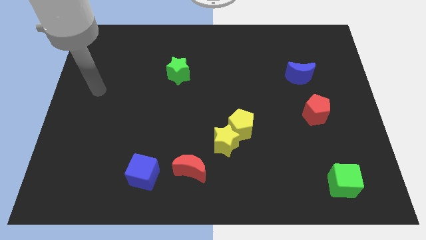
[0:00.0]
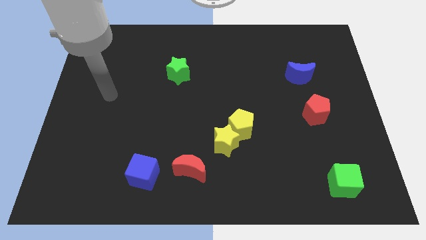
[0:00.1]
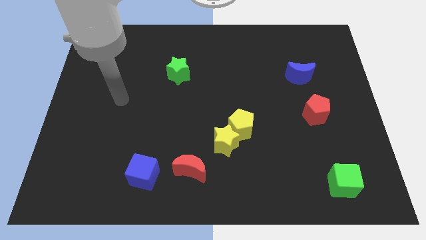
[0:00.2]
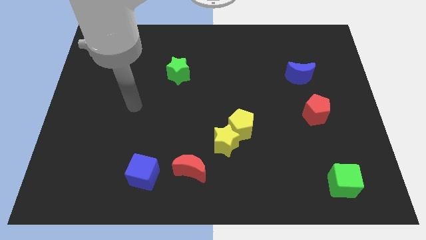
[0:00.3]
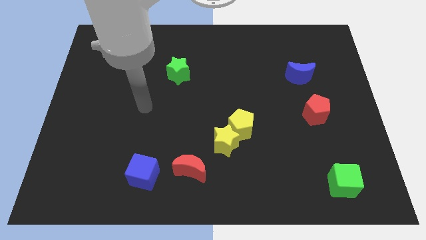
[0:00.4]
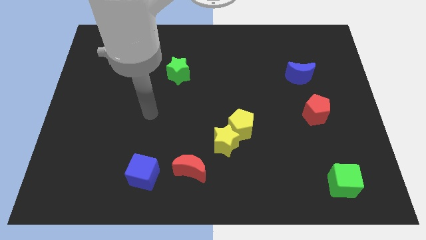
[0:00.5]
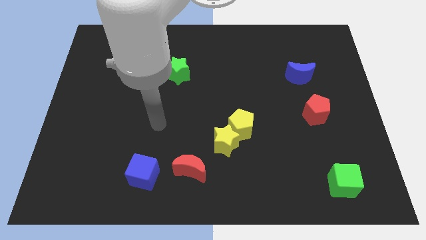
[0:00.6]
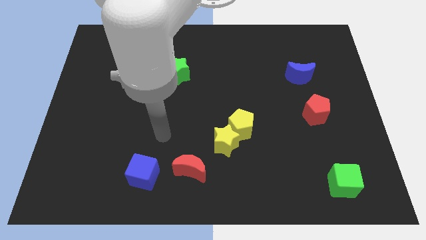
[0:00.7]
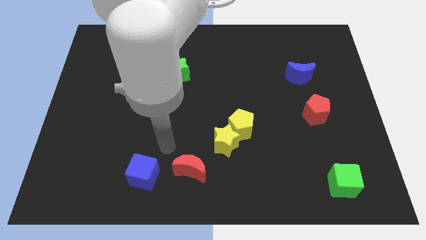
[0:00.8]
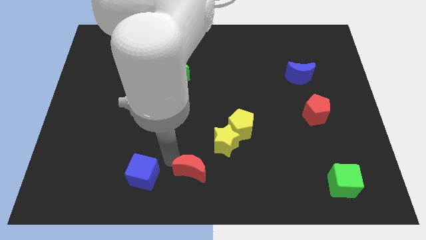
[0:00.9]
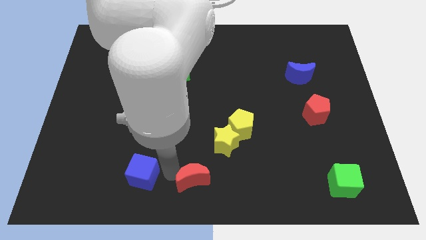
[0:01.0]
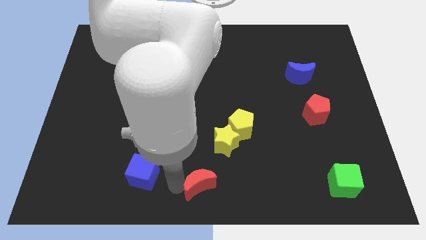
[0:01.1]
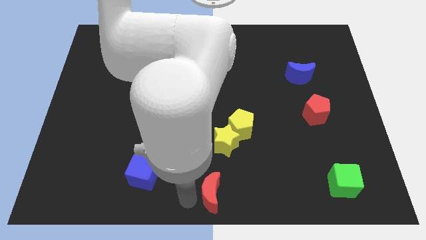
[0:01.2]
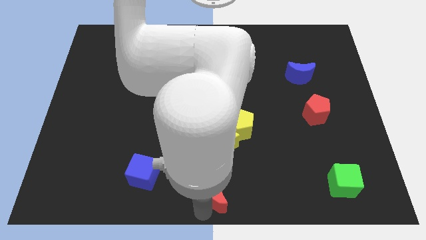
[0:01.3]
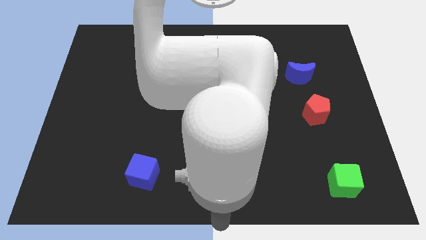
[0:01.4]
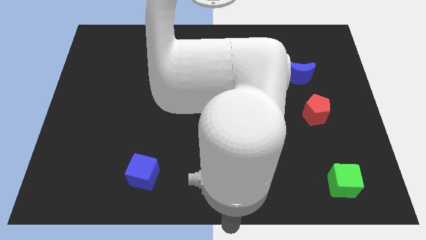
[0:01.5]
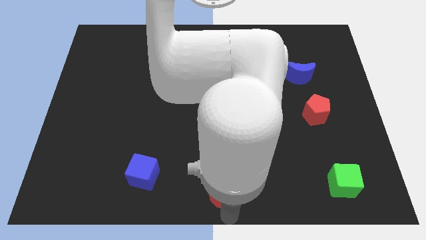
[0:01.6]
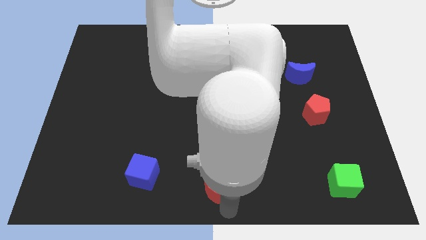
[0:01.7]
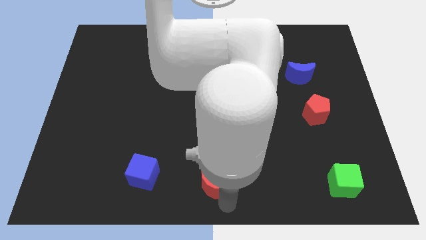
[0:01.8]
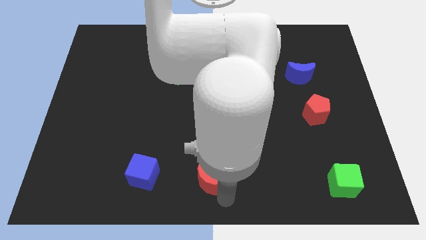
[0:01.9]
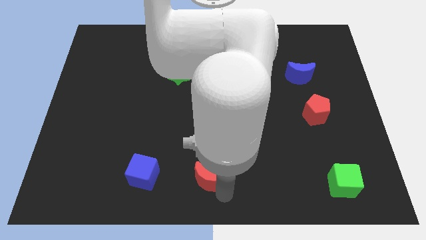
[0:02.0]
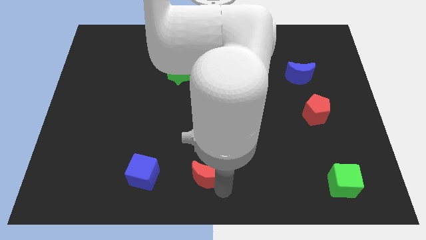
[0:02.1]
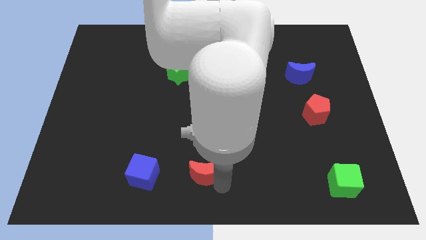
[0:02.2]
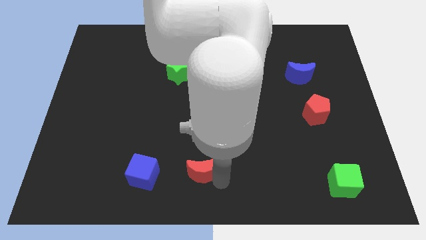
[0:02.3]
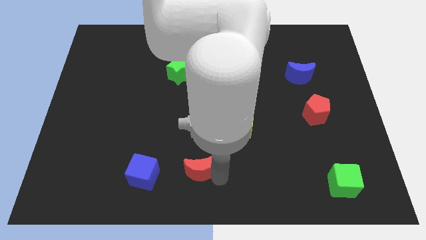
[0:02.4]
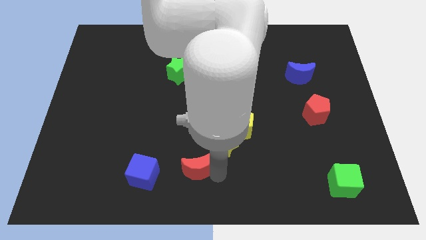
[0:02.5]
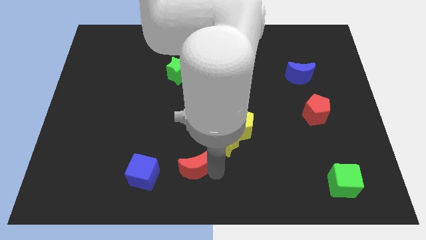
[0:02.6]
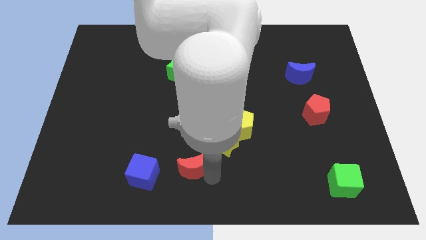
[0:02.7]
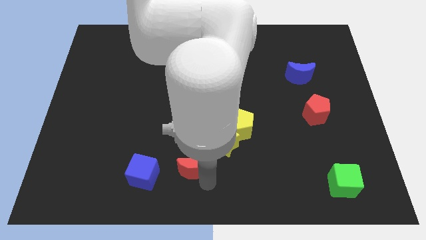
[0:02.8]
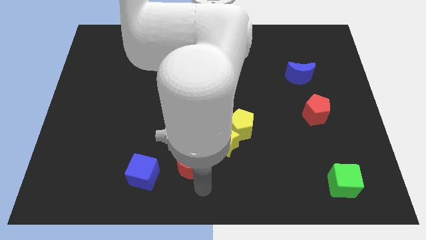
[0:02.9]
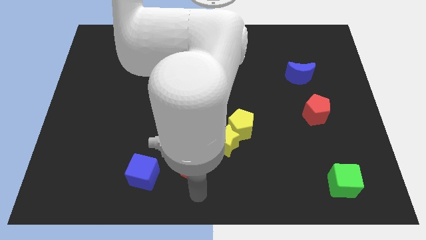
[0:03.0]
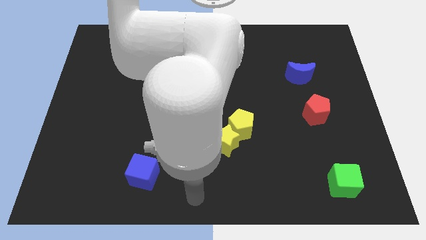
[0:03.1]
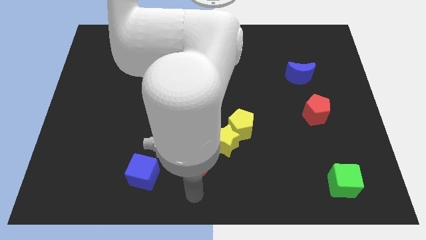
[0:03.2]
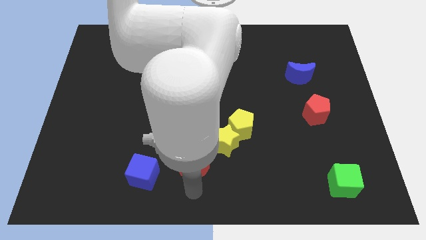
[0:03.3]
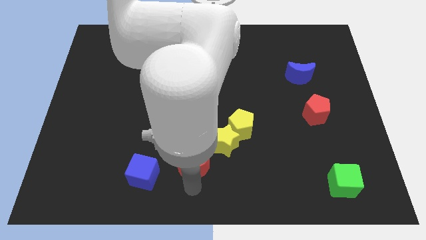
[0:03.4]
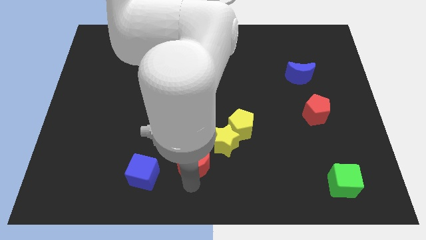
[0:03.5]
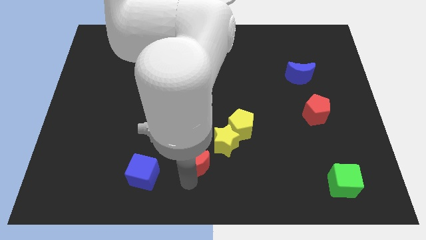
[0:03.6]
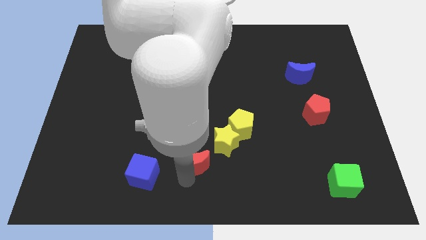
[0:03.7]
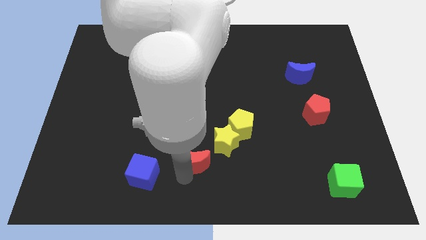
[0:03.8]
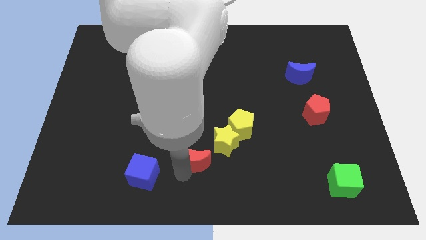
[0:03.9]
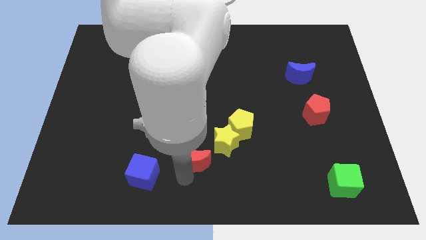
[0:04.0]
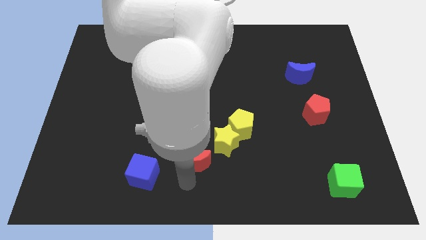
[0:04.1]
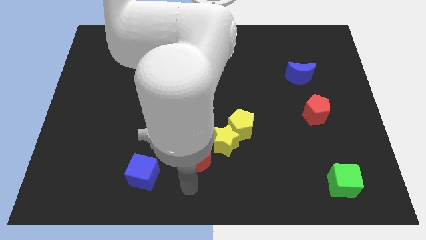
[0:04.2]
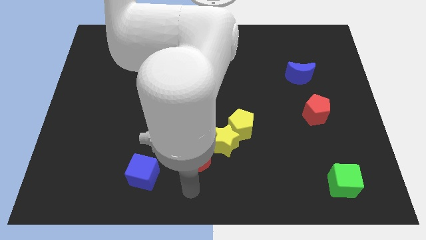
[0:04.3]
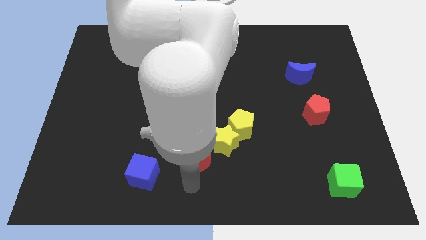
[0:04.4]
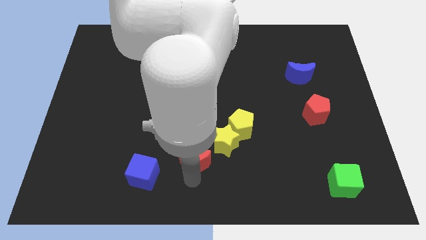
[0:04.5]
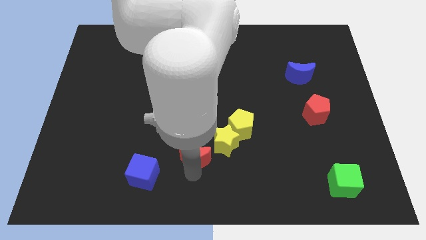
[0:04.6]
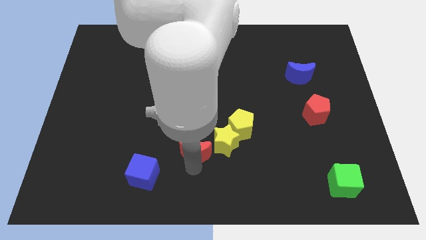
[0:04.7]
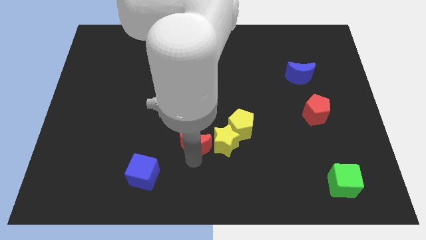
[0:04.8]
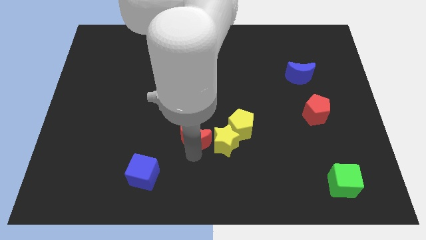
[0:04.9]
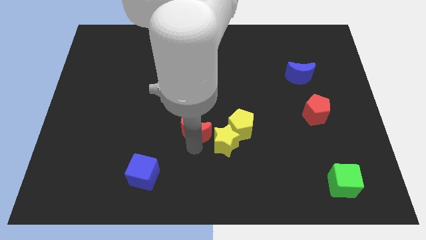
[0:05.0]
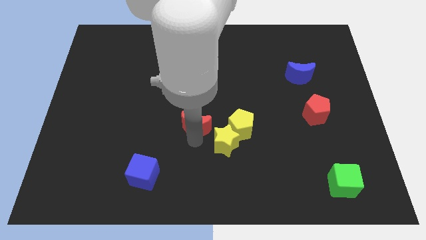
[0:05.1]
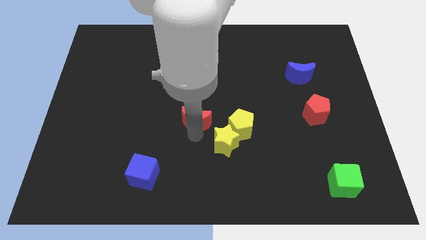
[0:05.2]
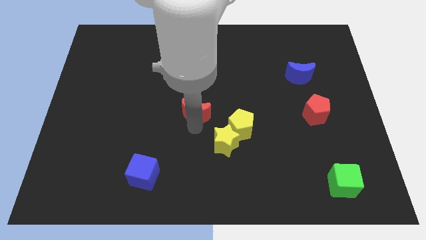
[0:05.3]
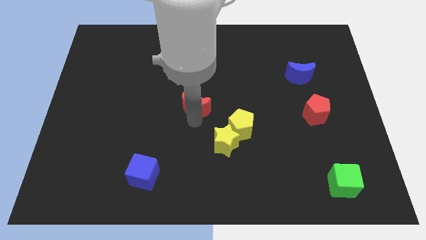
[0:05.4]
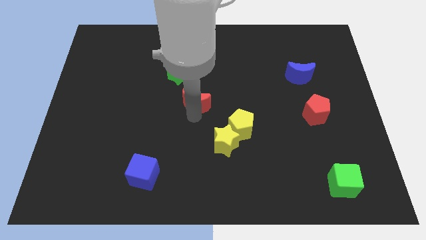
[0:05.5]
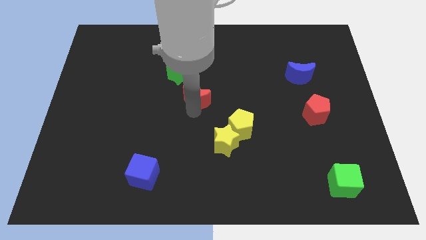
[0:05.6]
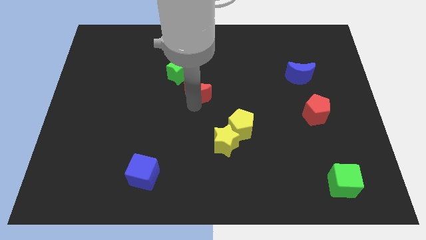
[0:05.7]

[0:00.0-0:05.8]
move the red moon up

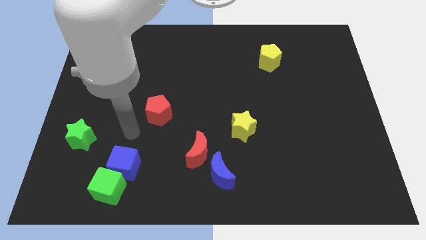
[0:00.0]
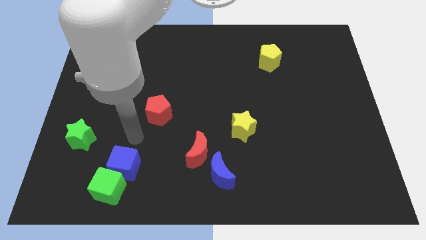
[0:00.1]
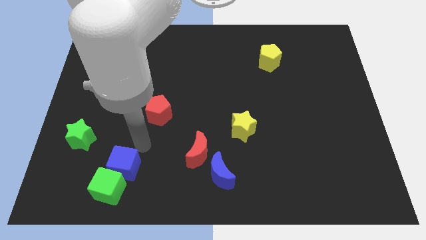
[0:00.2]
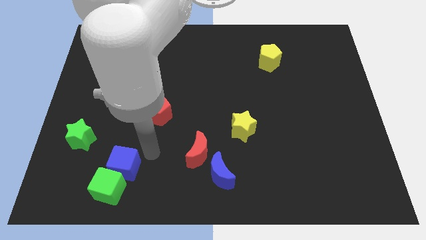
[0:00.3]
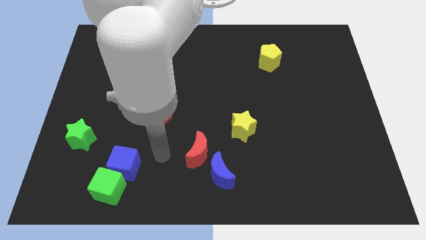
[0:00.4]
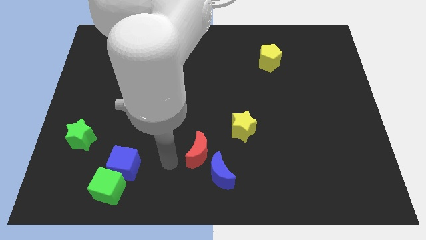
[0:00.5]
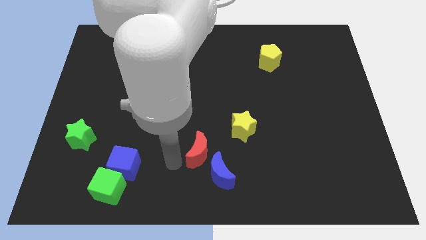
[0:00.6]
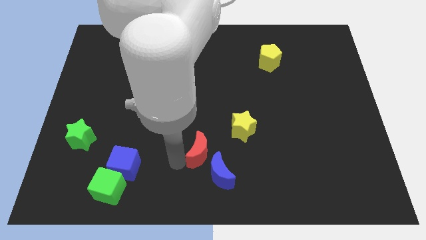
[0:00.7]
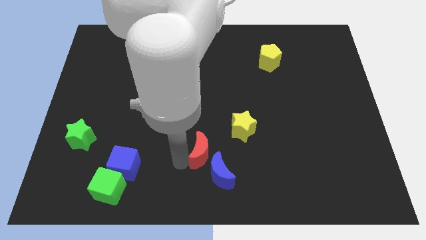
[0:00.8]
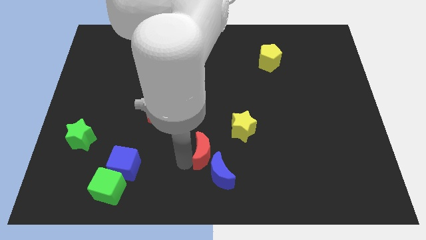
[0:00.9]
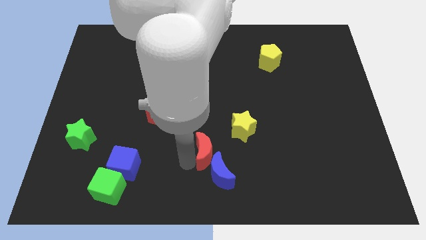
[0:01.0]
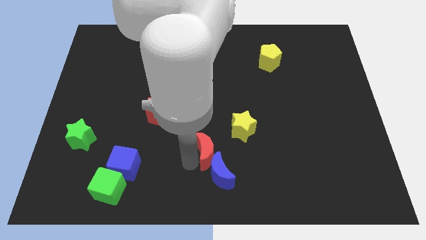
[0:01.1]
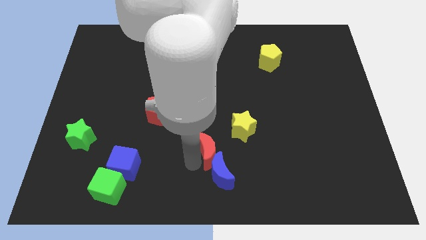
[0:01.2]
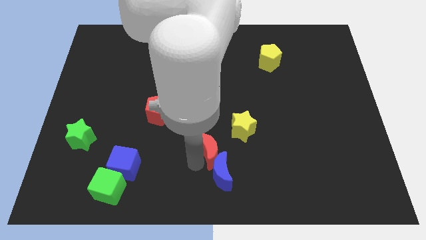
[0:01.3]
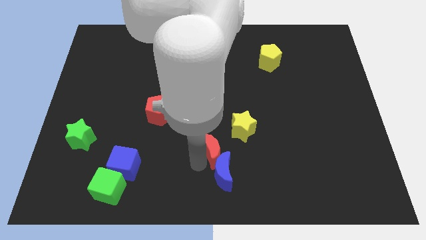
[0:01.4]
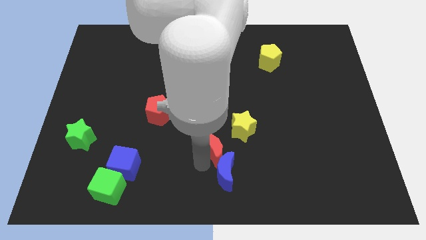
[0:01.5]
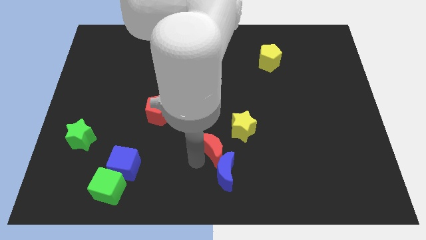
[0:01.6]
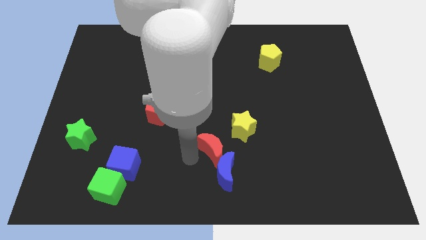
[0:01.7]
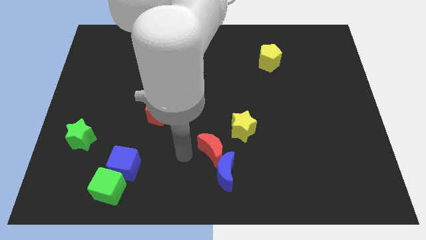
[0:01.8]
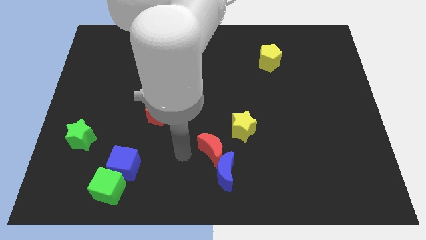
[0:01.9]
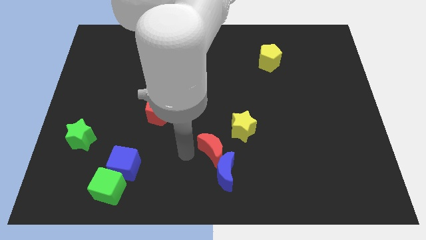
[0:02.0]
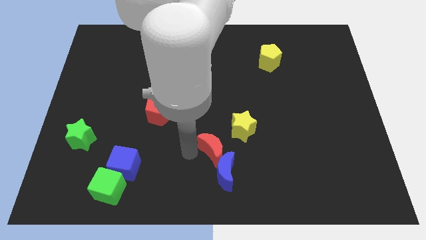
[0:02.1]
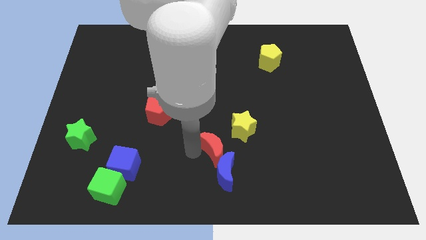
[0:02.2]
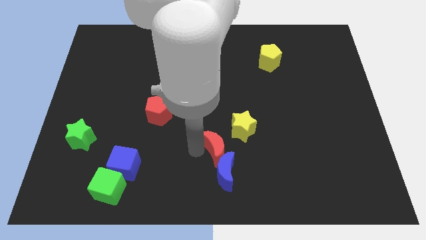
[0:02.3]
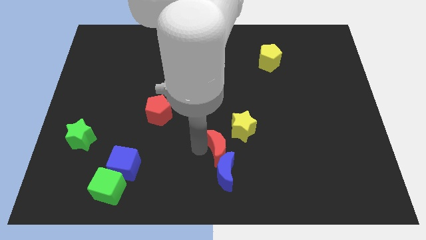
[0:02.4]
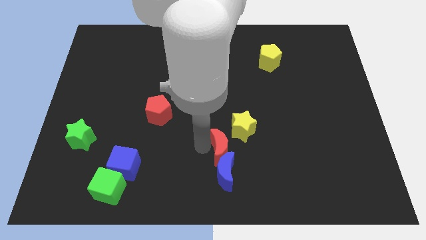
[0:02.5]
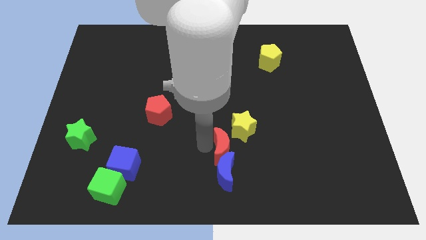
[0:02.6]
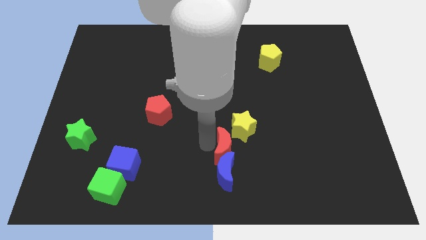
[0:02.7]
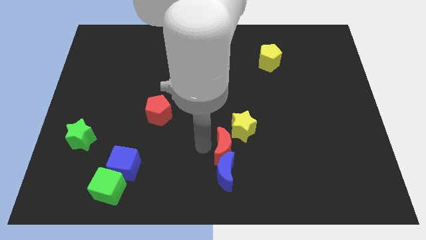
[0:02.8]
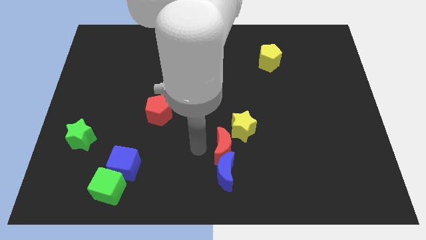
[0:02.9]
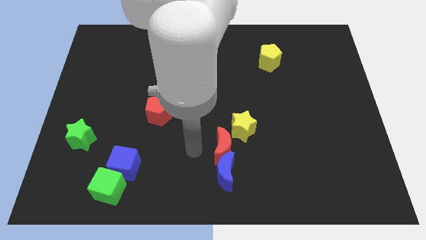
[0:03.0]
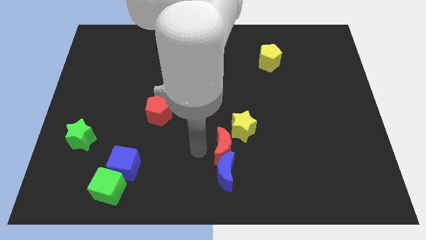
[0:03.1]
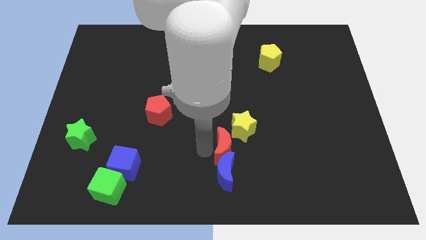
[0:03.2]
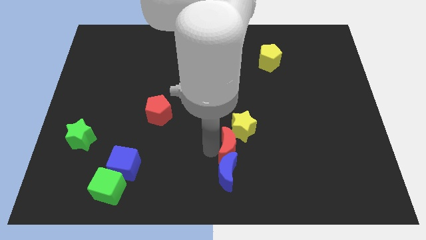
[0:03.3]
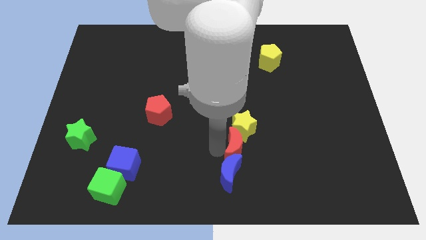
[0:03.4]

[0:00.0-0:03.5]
move the red moon a little right
